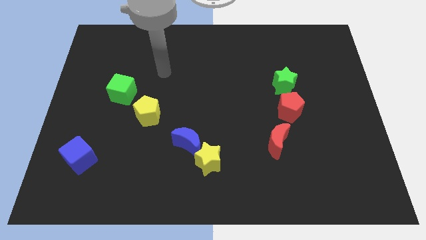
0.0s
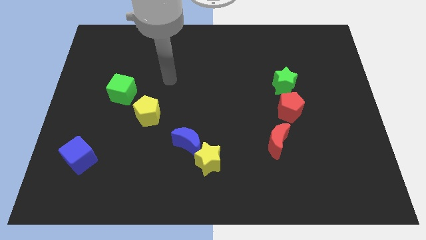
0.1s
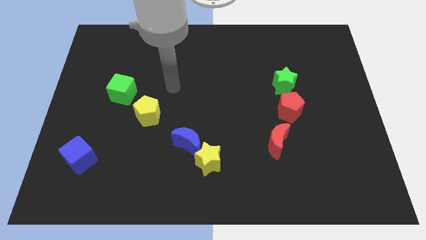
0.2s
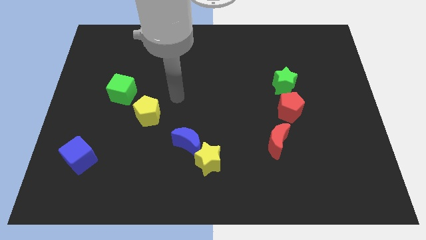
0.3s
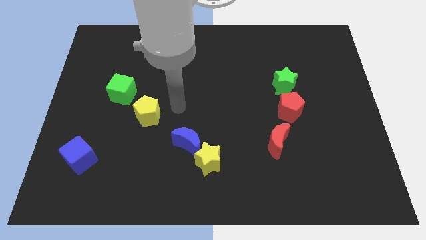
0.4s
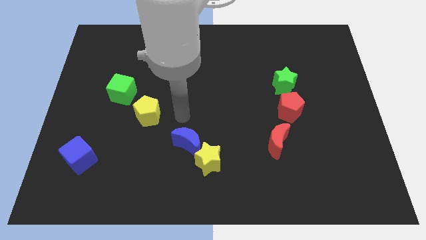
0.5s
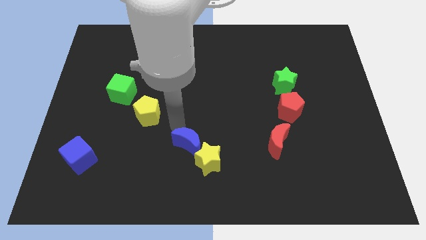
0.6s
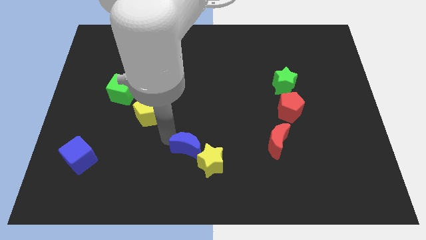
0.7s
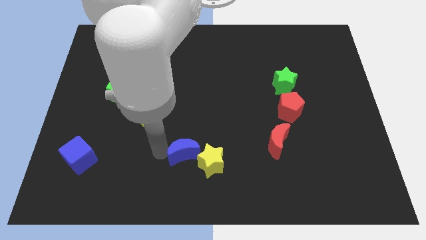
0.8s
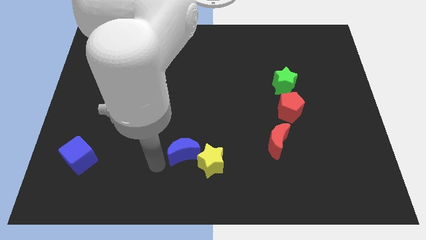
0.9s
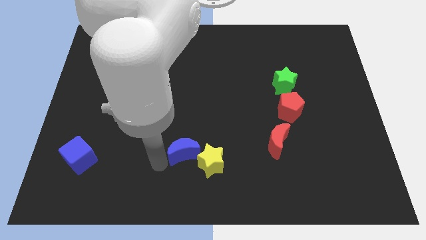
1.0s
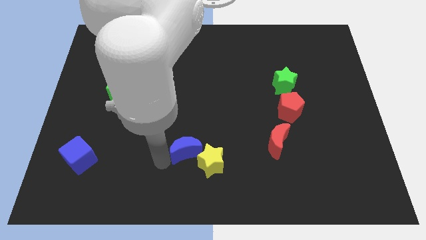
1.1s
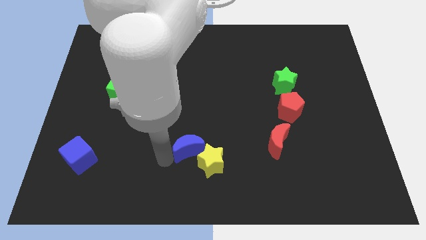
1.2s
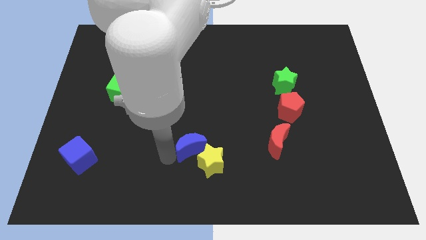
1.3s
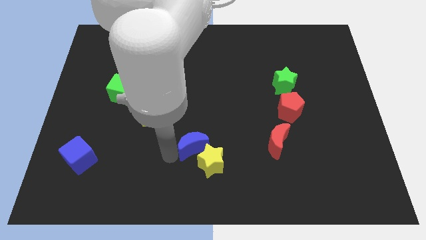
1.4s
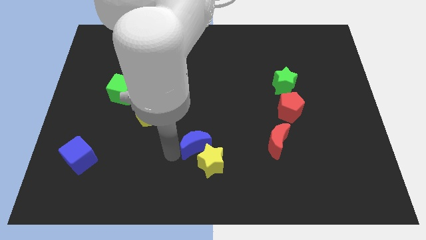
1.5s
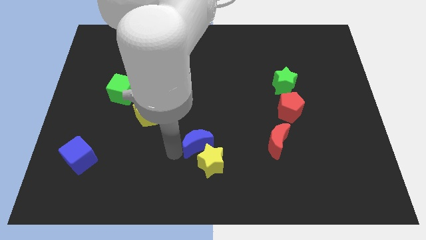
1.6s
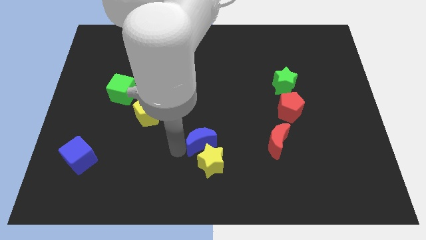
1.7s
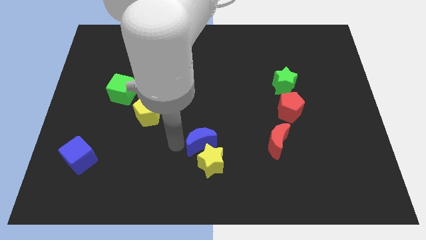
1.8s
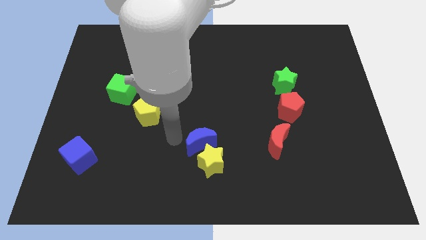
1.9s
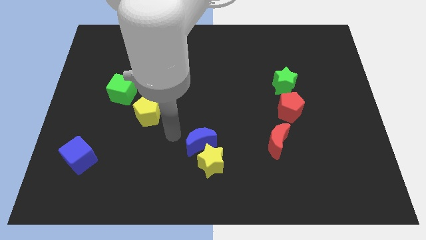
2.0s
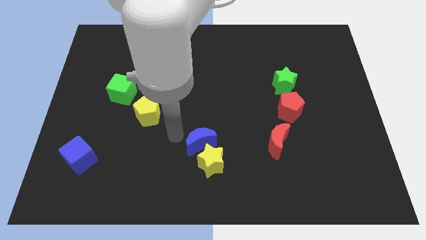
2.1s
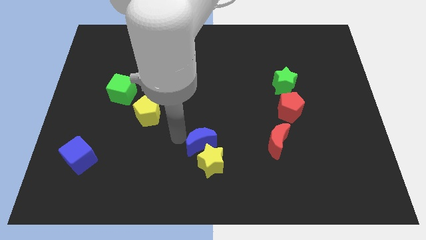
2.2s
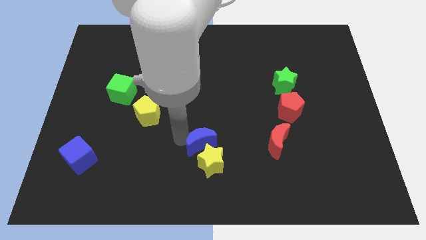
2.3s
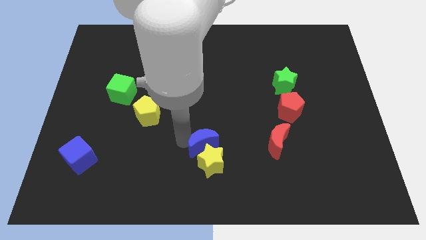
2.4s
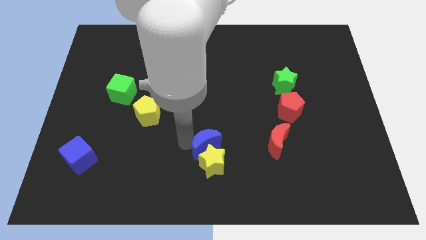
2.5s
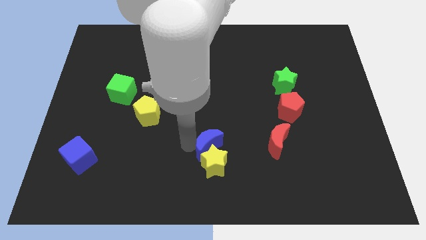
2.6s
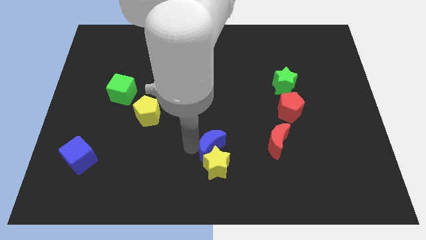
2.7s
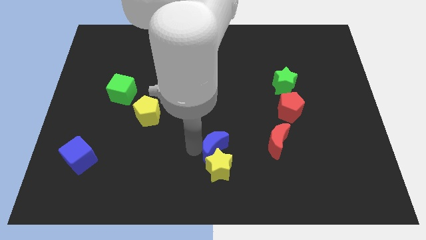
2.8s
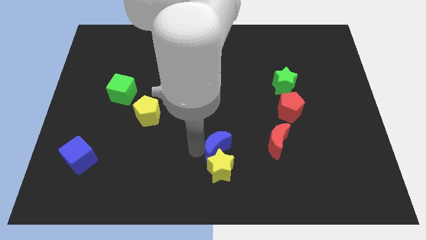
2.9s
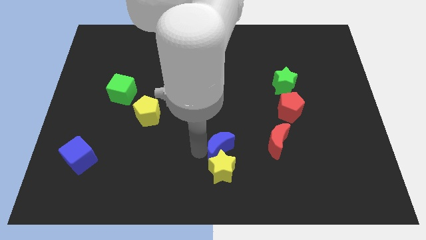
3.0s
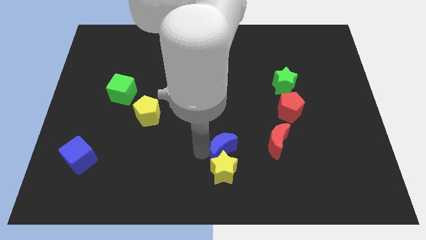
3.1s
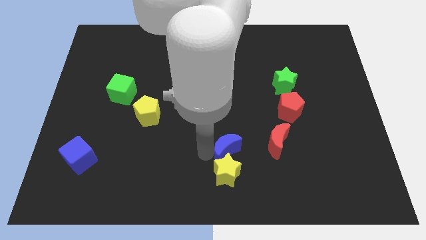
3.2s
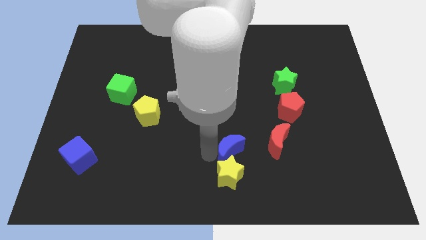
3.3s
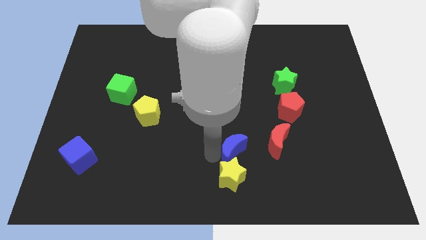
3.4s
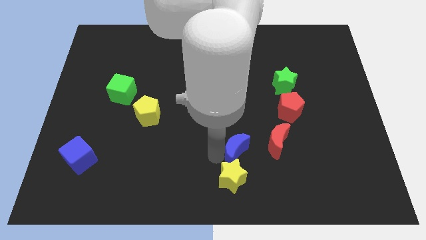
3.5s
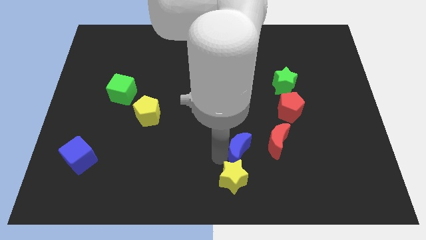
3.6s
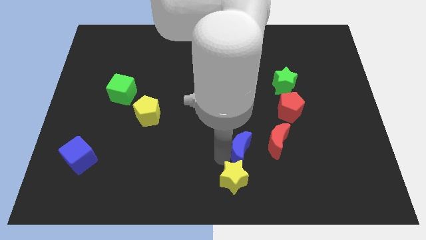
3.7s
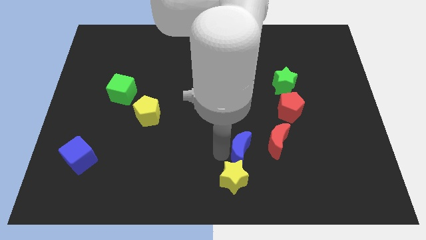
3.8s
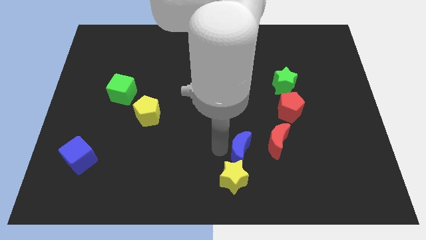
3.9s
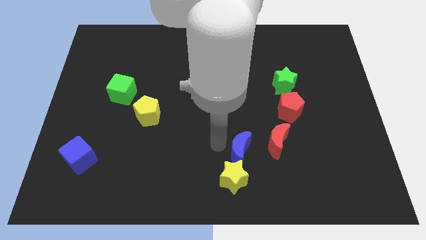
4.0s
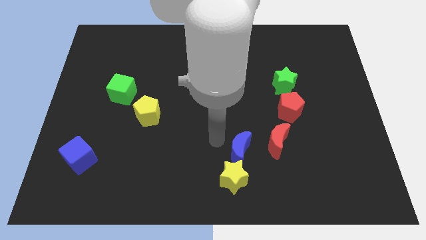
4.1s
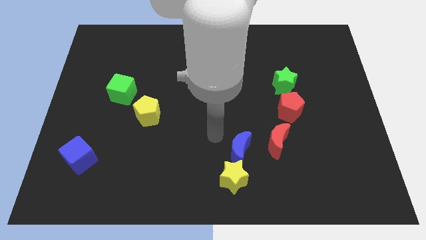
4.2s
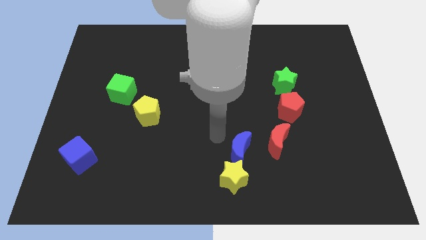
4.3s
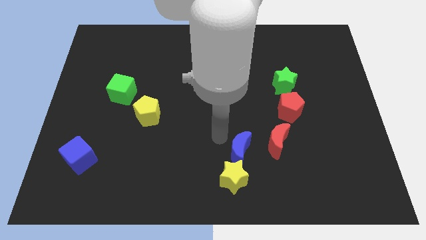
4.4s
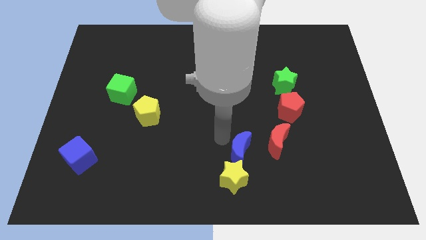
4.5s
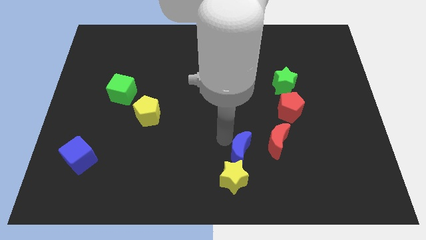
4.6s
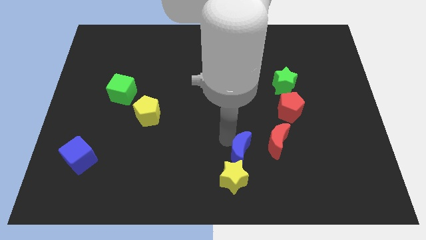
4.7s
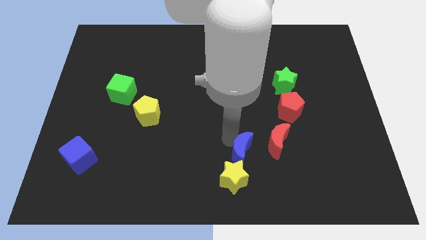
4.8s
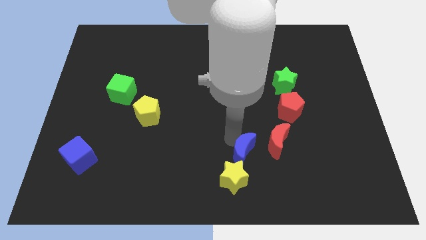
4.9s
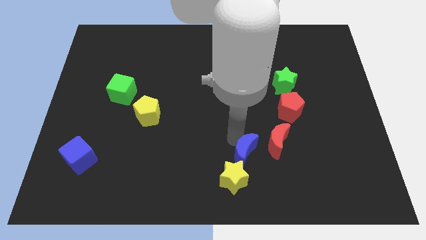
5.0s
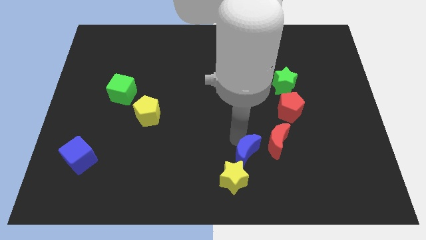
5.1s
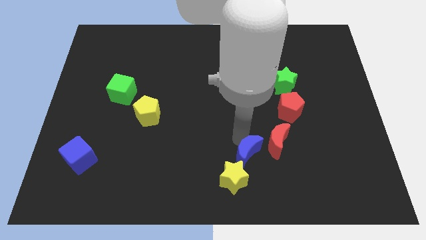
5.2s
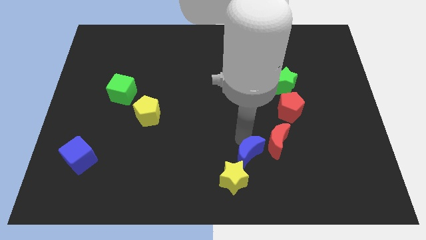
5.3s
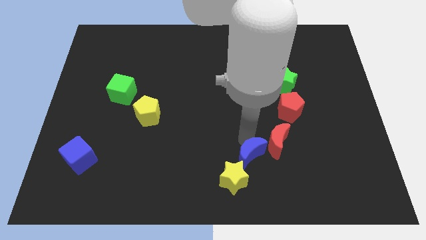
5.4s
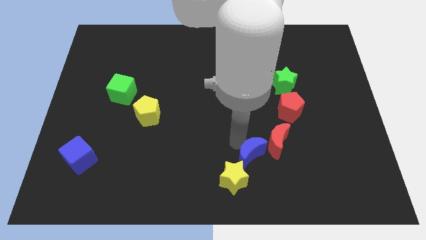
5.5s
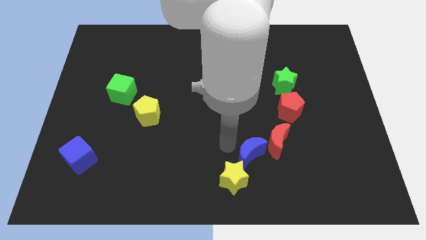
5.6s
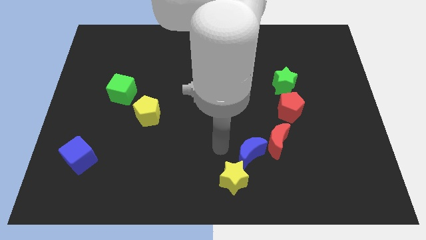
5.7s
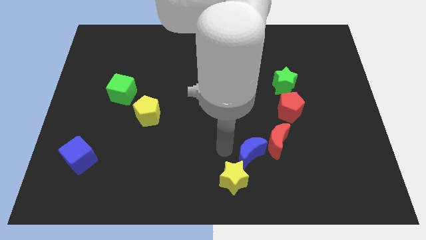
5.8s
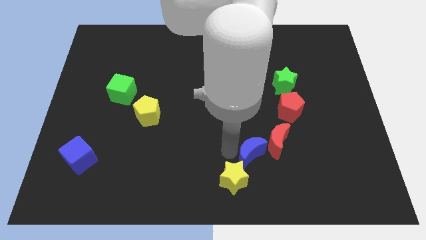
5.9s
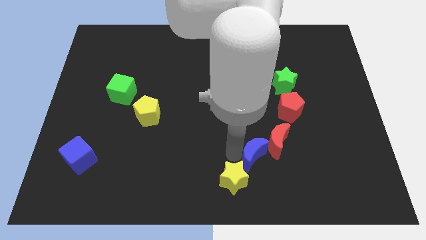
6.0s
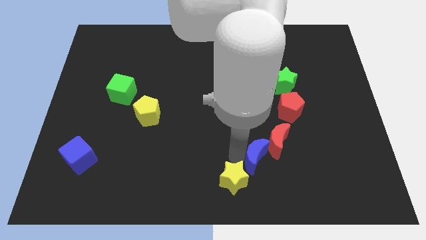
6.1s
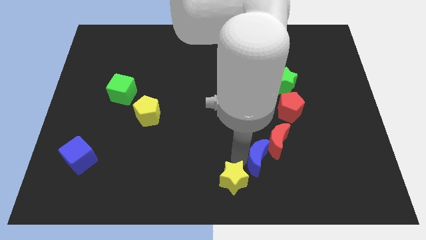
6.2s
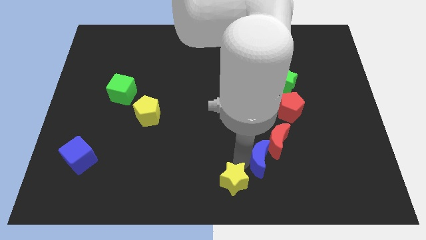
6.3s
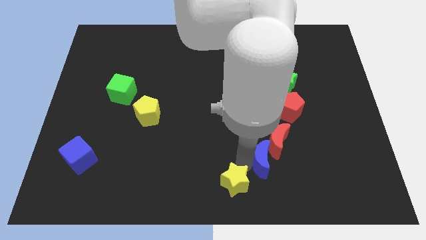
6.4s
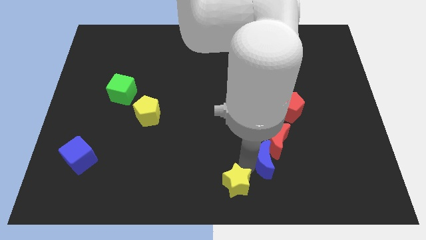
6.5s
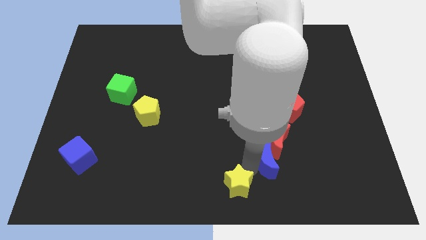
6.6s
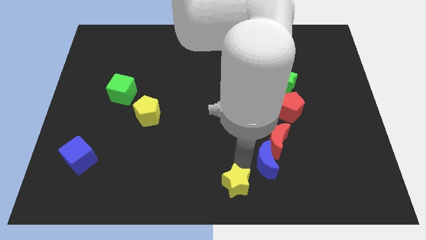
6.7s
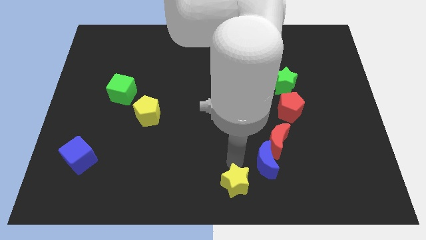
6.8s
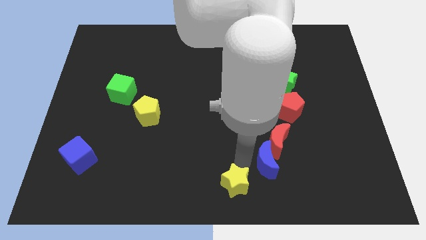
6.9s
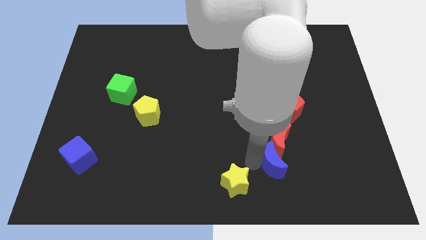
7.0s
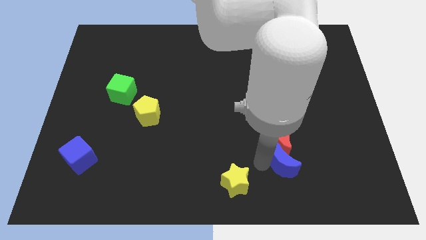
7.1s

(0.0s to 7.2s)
slide the blue moon diagonally down and to the right of the red moon

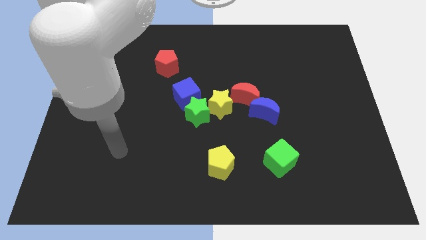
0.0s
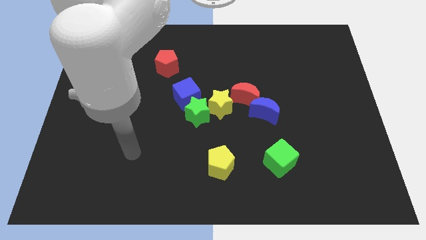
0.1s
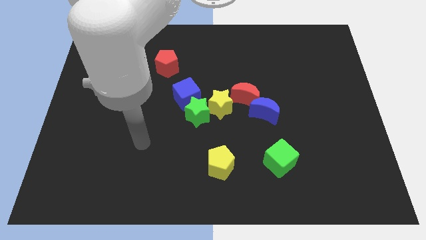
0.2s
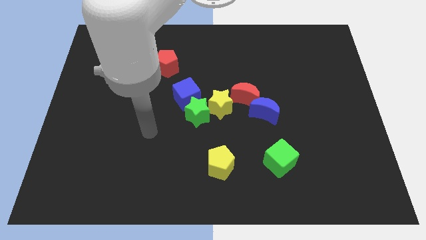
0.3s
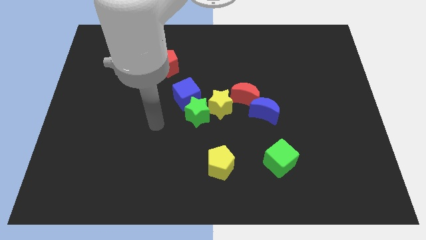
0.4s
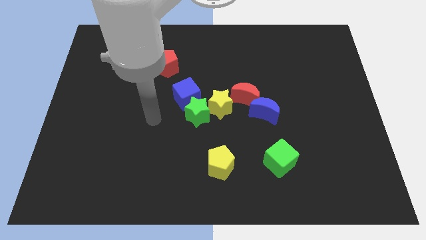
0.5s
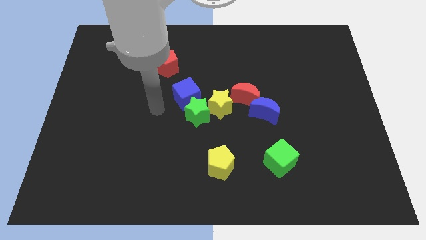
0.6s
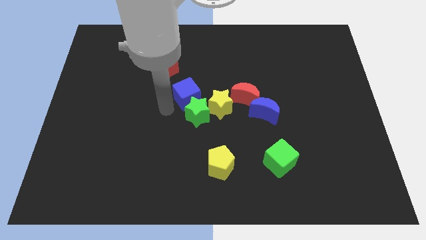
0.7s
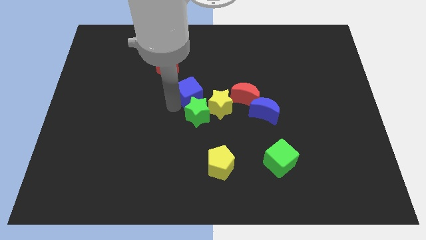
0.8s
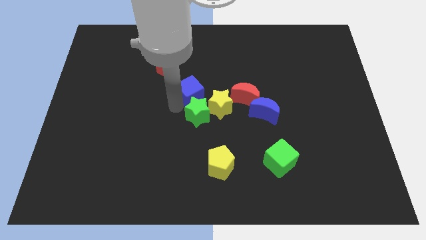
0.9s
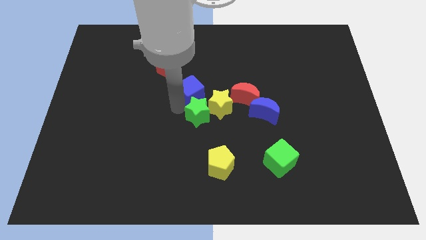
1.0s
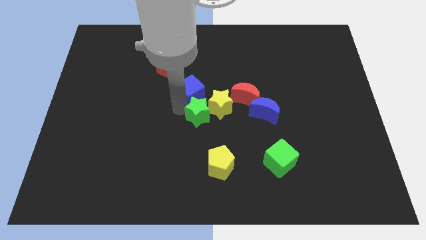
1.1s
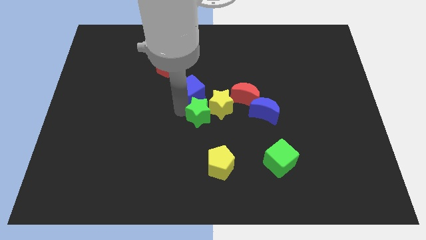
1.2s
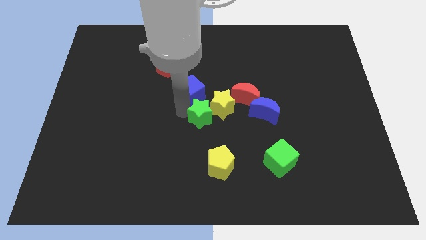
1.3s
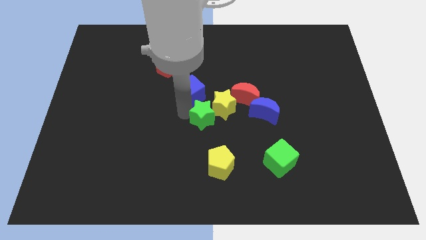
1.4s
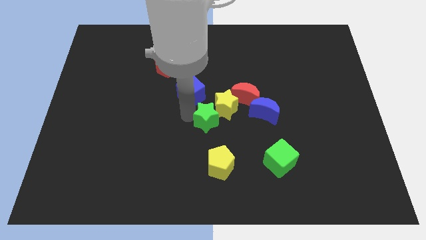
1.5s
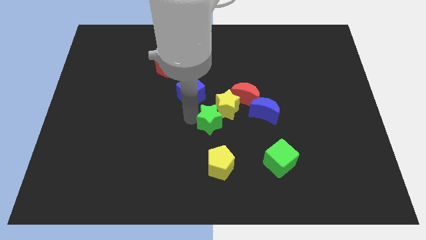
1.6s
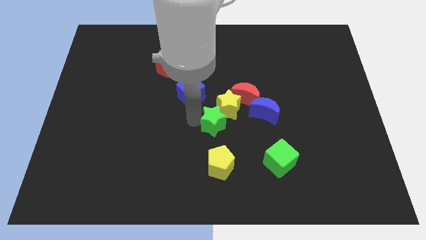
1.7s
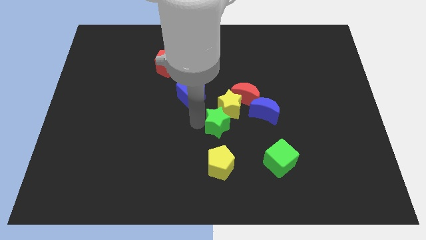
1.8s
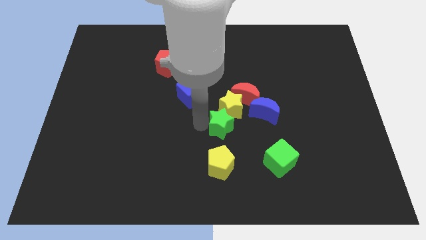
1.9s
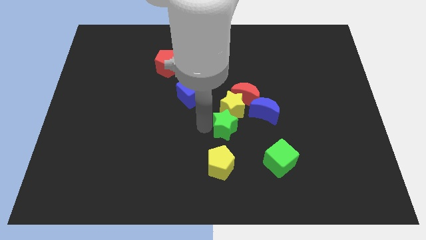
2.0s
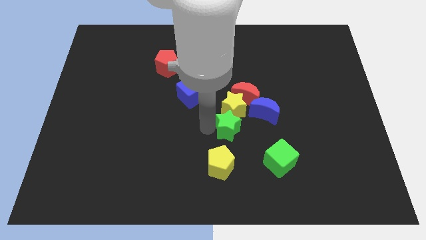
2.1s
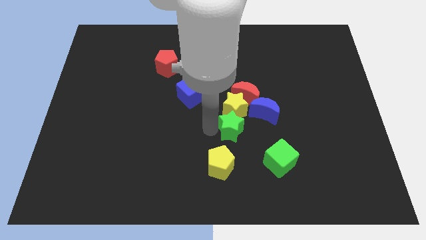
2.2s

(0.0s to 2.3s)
slide the green star to the bottom right of the yellow star
